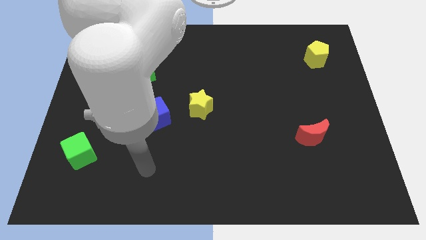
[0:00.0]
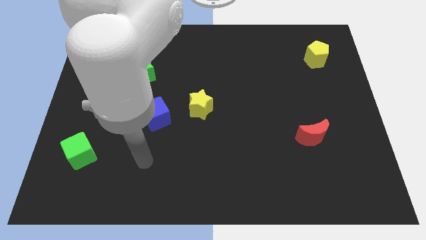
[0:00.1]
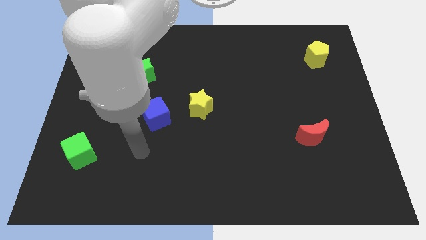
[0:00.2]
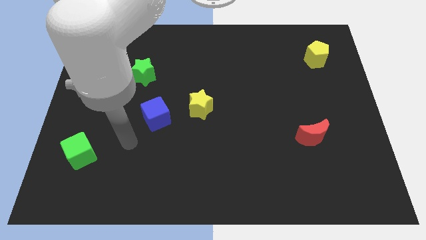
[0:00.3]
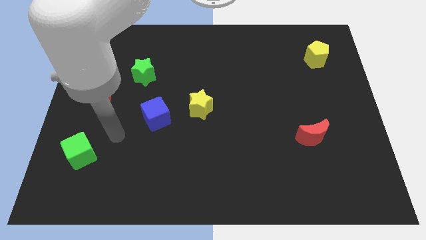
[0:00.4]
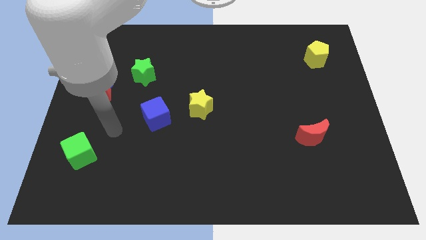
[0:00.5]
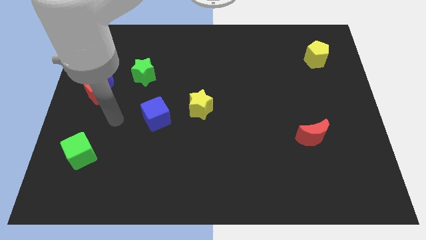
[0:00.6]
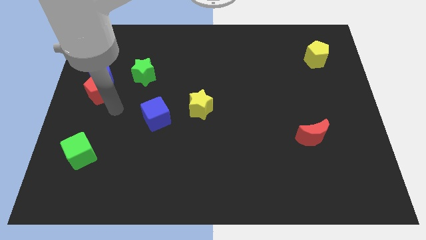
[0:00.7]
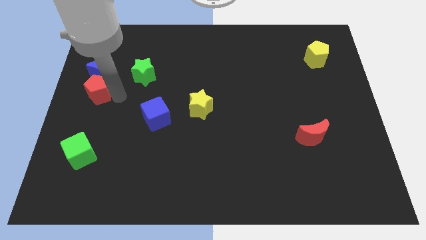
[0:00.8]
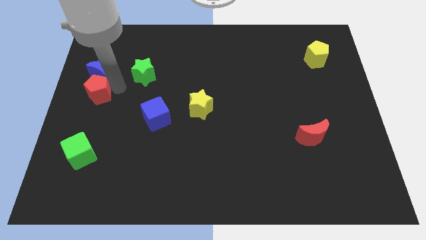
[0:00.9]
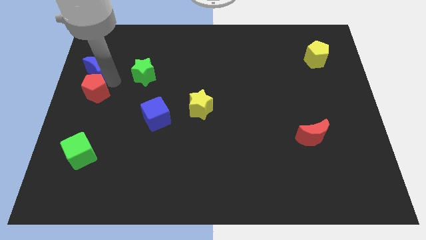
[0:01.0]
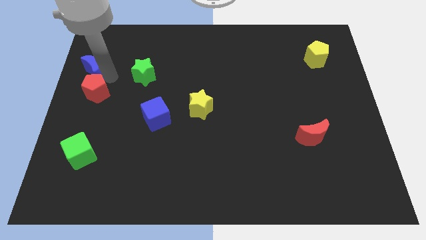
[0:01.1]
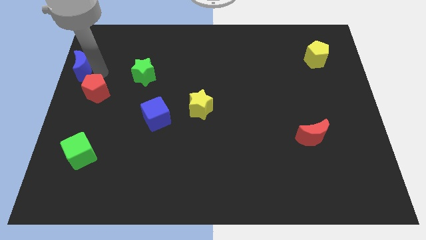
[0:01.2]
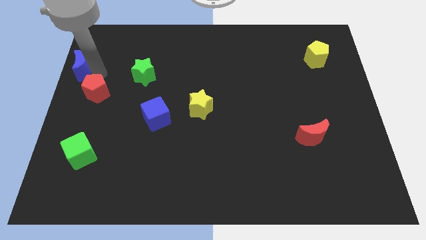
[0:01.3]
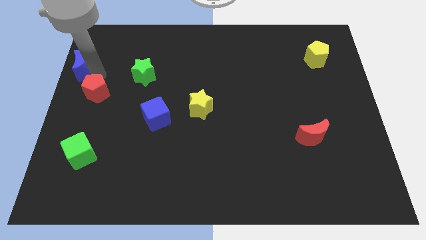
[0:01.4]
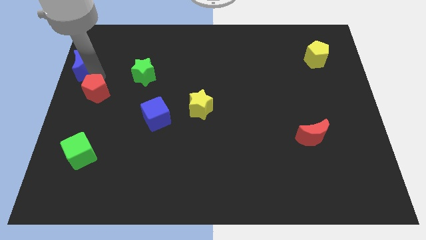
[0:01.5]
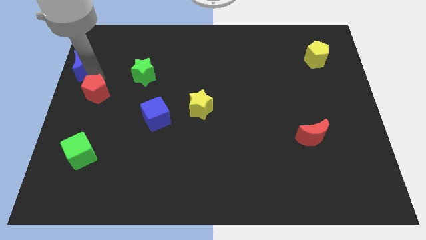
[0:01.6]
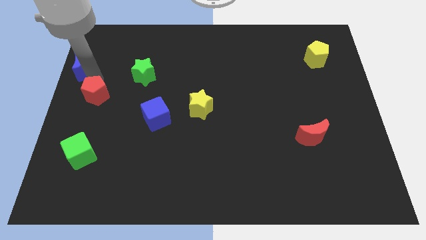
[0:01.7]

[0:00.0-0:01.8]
pull the red pentagon apart from the blue moon

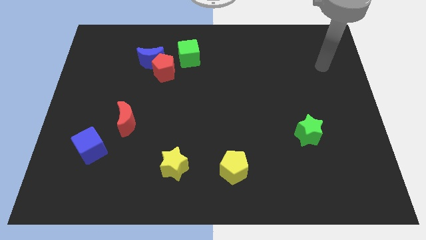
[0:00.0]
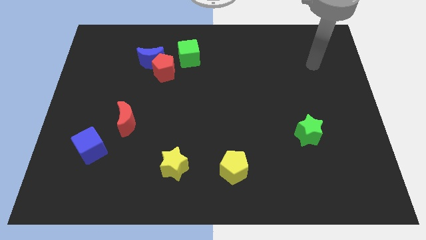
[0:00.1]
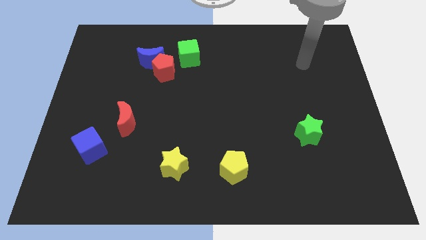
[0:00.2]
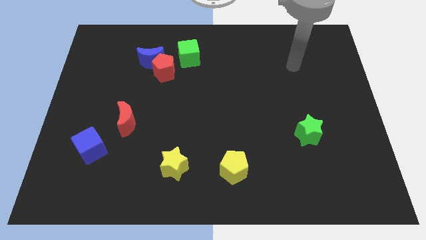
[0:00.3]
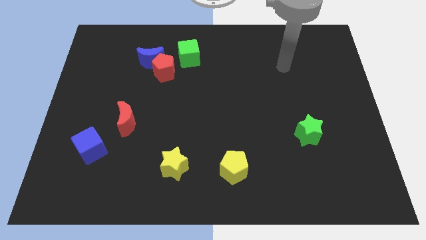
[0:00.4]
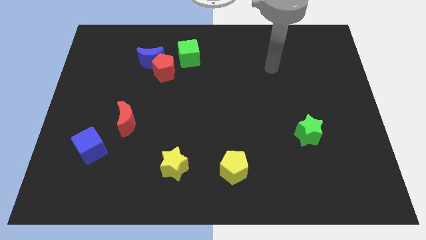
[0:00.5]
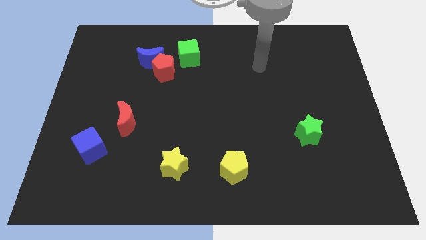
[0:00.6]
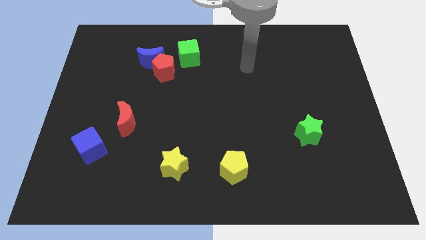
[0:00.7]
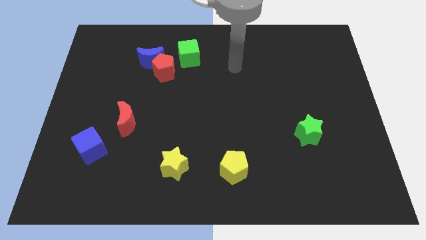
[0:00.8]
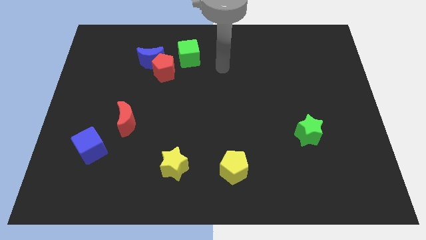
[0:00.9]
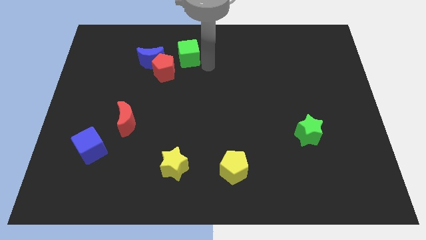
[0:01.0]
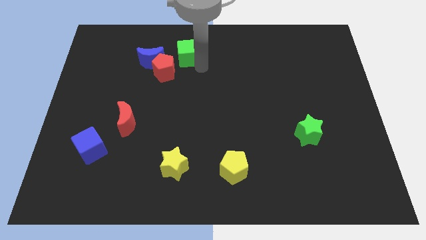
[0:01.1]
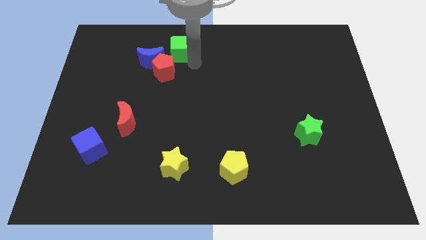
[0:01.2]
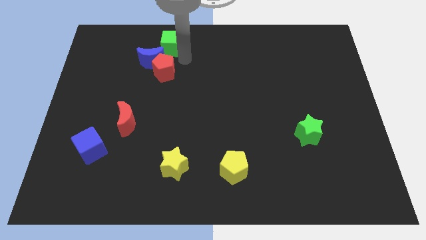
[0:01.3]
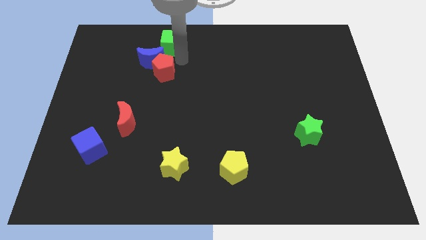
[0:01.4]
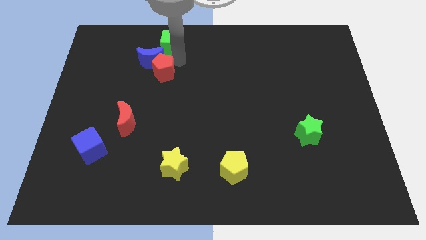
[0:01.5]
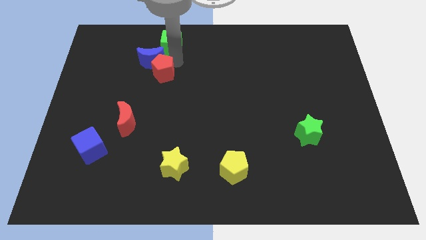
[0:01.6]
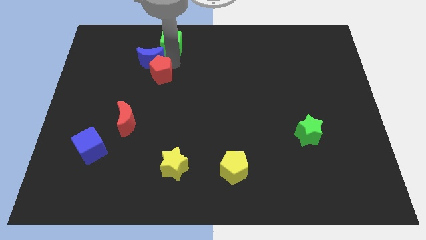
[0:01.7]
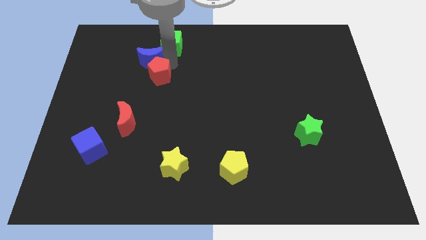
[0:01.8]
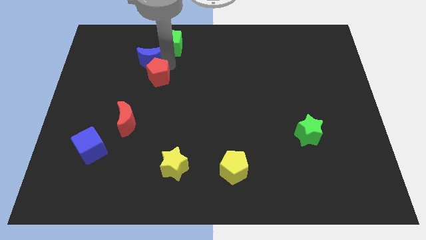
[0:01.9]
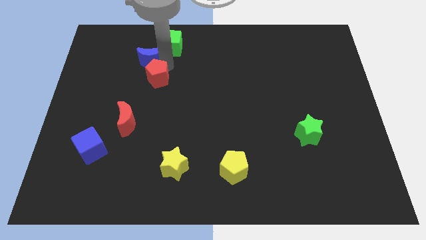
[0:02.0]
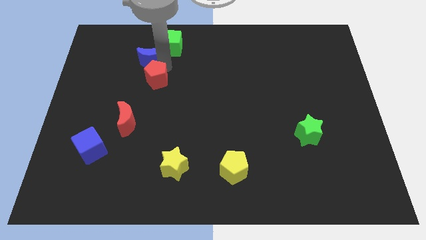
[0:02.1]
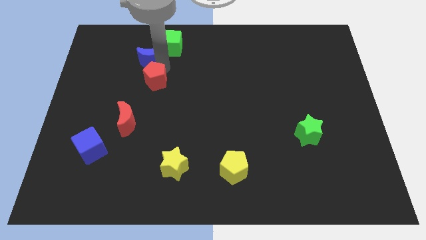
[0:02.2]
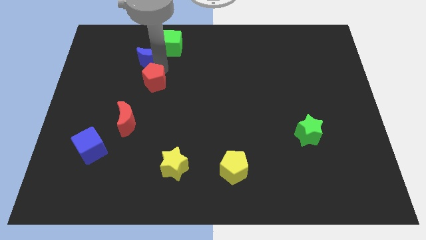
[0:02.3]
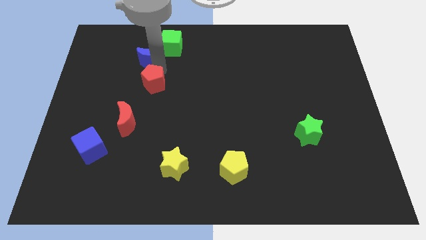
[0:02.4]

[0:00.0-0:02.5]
pull the red pentagon apart from the blue moon and green cube

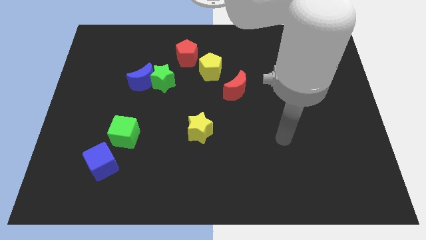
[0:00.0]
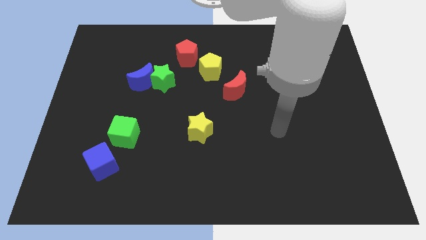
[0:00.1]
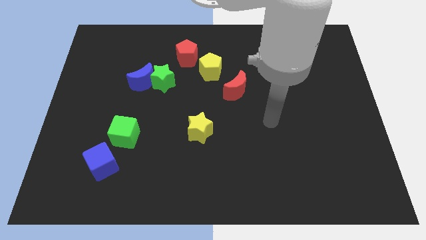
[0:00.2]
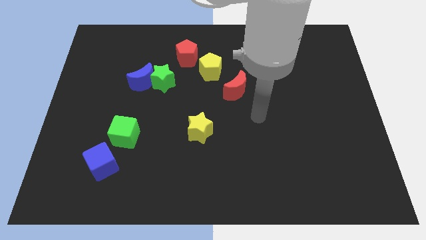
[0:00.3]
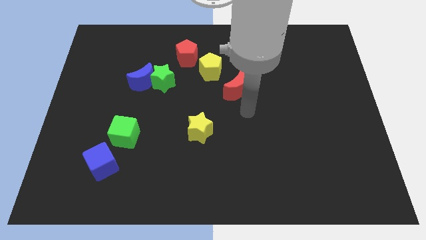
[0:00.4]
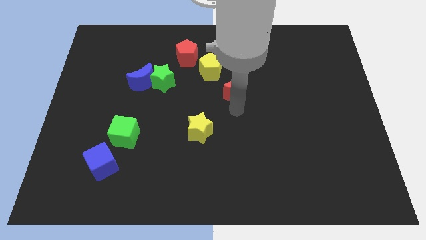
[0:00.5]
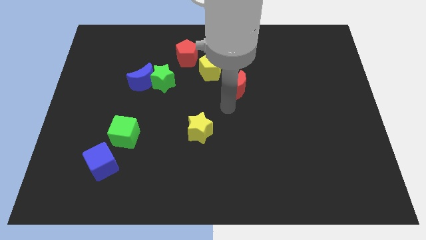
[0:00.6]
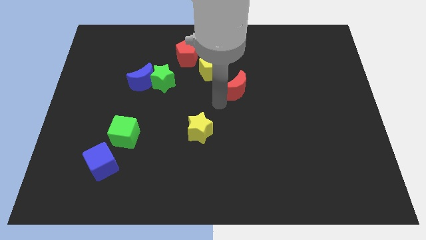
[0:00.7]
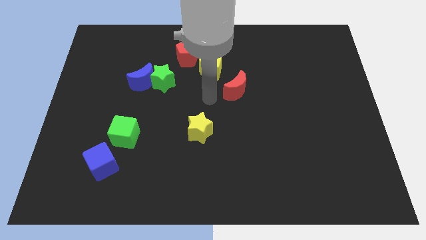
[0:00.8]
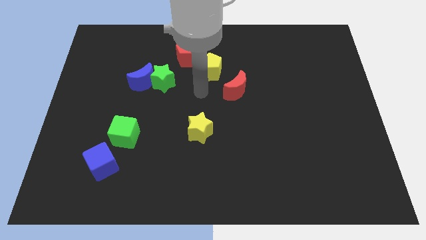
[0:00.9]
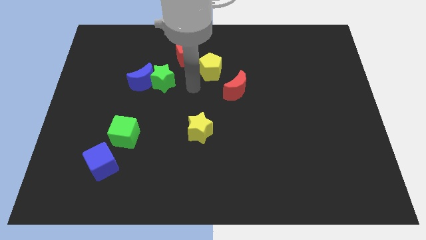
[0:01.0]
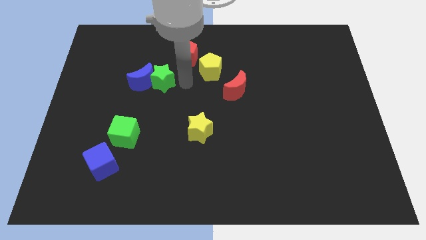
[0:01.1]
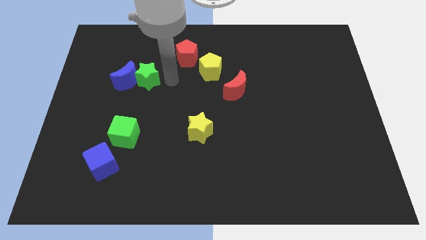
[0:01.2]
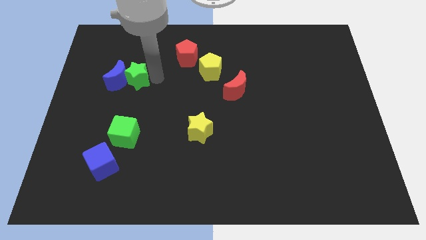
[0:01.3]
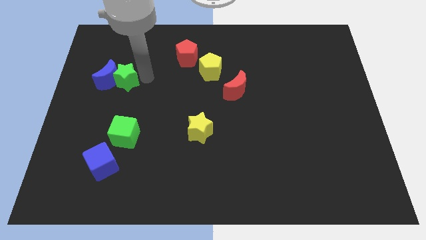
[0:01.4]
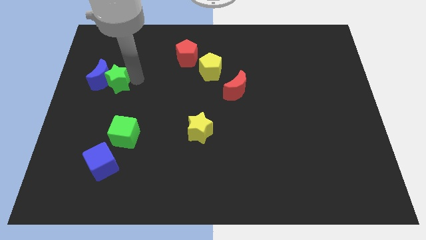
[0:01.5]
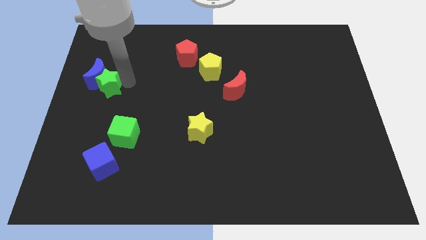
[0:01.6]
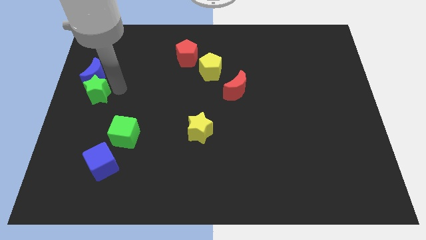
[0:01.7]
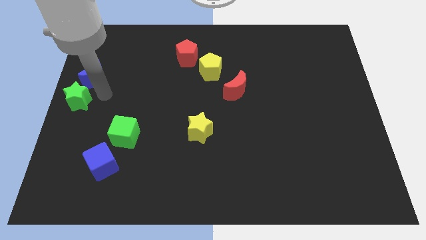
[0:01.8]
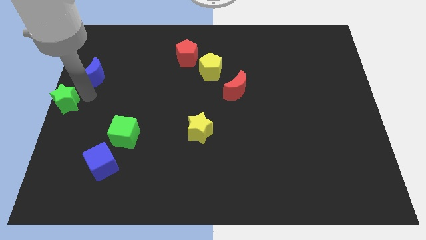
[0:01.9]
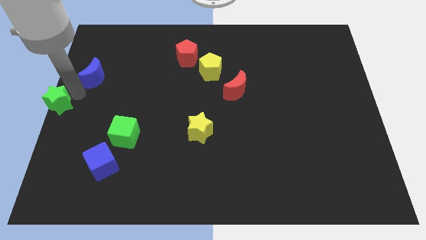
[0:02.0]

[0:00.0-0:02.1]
move the blue moon away from the green star

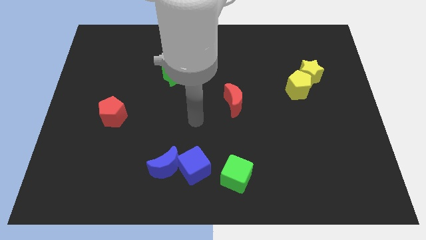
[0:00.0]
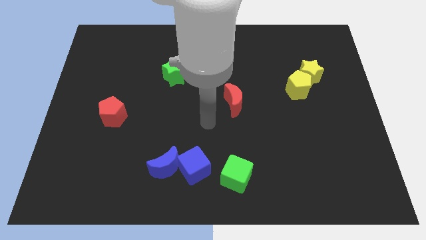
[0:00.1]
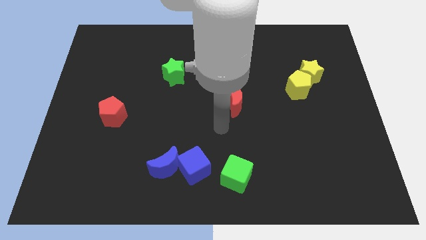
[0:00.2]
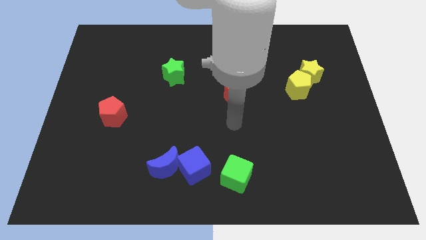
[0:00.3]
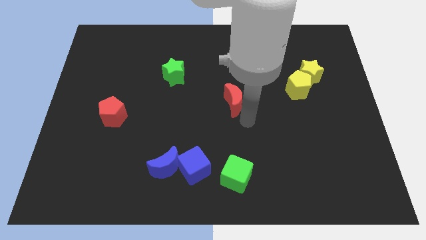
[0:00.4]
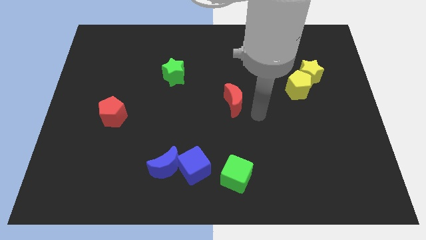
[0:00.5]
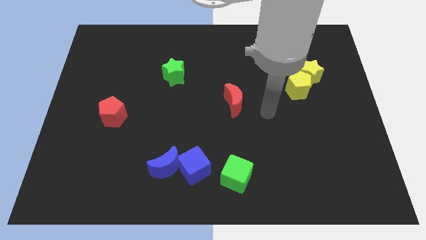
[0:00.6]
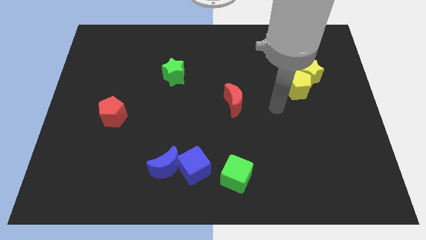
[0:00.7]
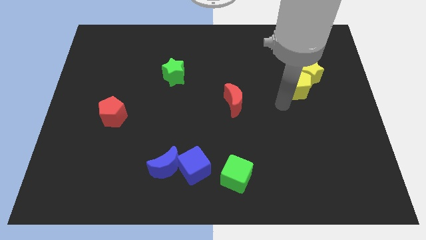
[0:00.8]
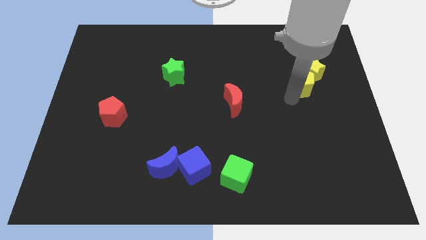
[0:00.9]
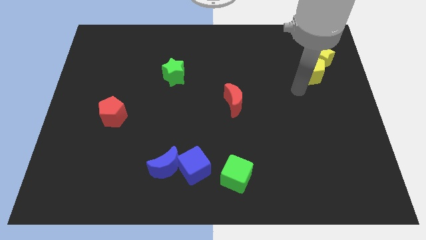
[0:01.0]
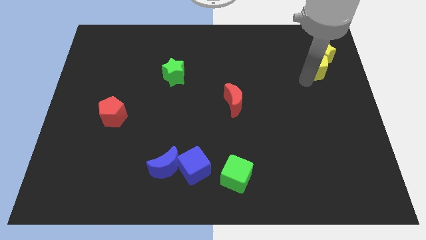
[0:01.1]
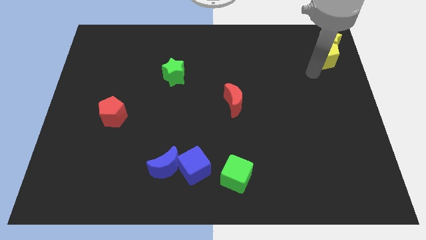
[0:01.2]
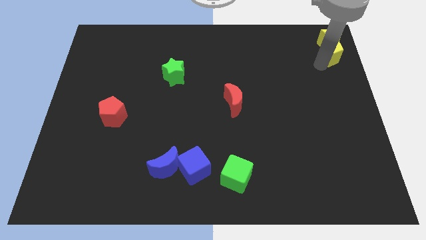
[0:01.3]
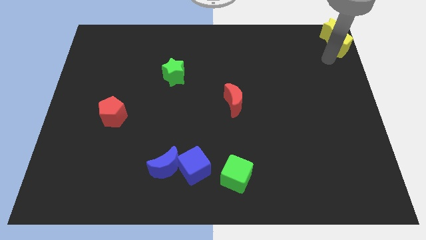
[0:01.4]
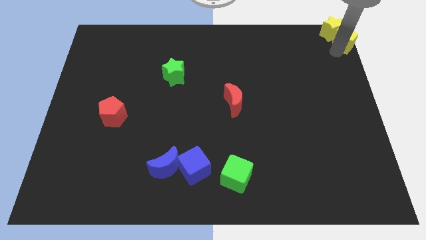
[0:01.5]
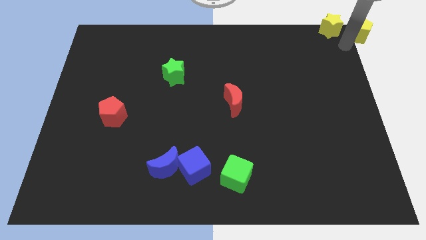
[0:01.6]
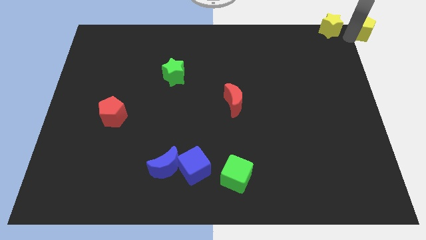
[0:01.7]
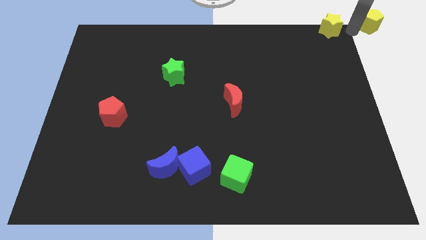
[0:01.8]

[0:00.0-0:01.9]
move the yellow star away from the yellow pentagon

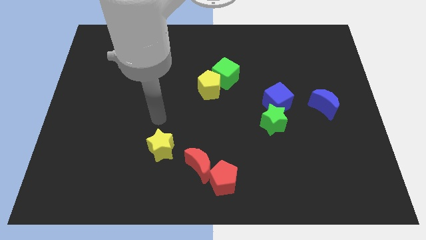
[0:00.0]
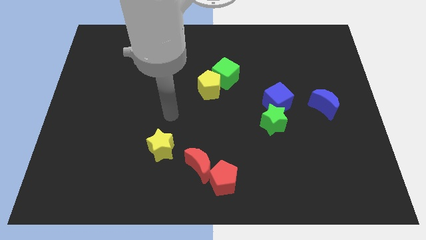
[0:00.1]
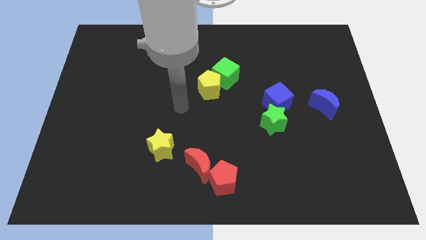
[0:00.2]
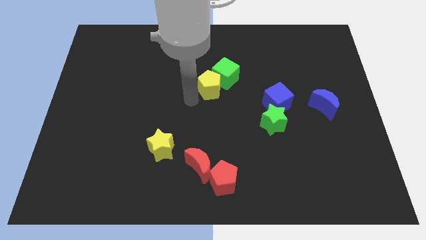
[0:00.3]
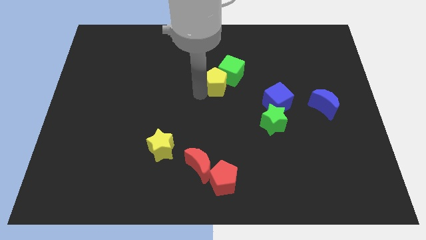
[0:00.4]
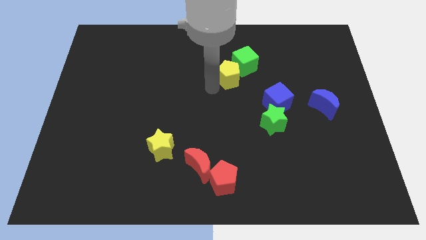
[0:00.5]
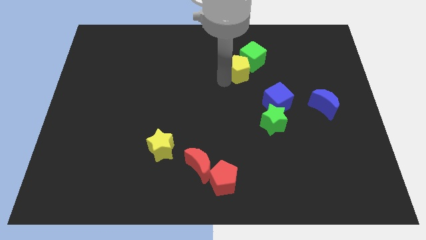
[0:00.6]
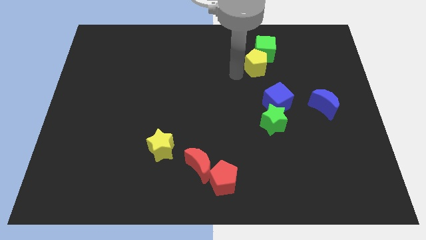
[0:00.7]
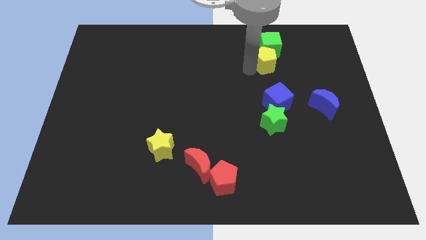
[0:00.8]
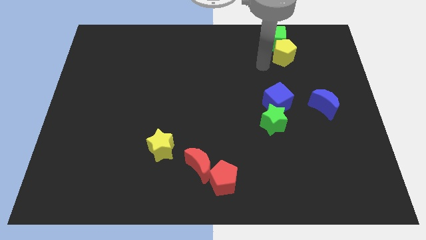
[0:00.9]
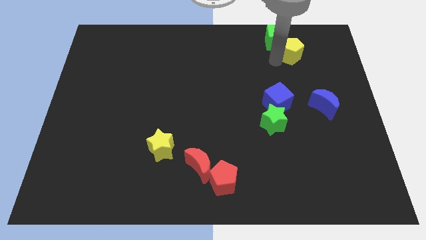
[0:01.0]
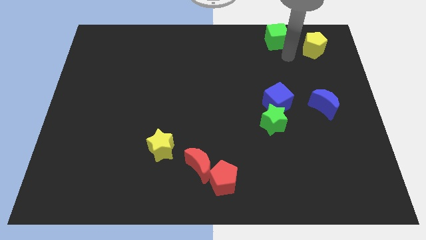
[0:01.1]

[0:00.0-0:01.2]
move the green cube away from the yellow pentagon
